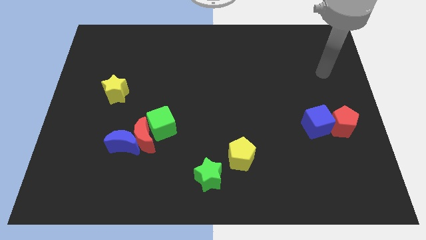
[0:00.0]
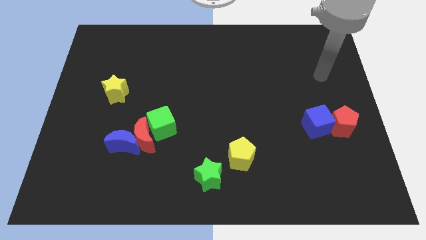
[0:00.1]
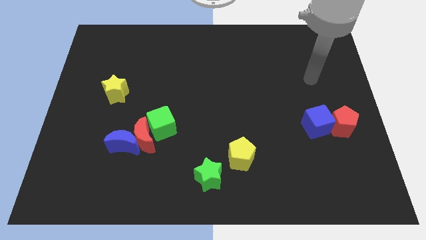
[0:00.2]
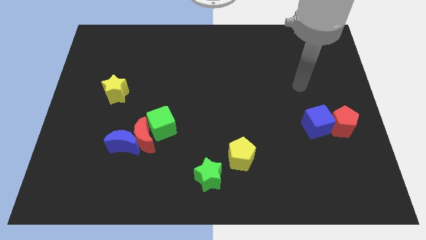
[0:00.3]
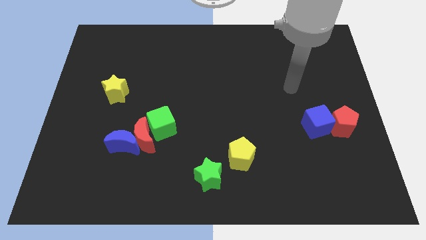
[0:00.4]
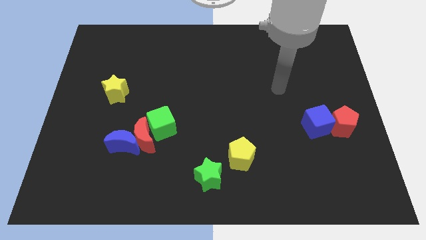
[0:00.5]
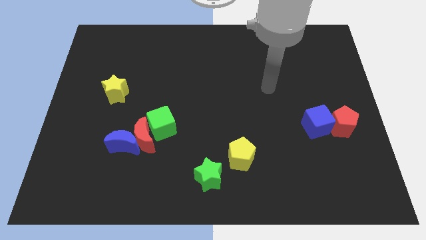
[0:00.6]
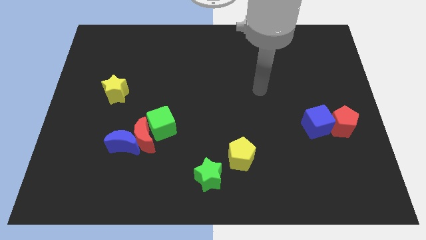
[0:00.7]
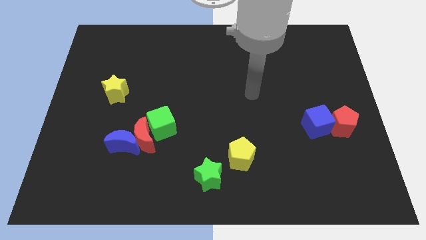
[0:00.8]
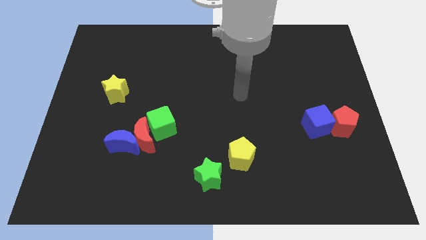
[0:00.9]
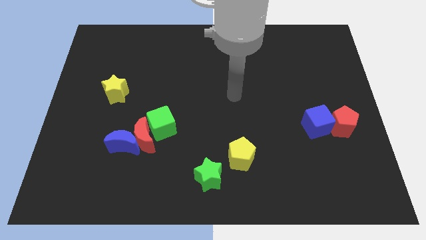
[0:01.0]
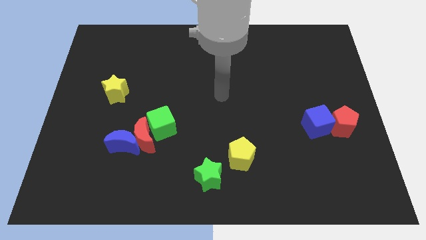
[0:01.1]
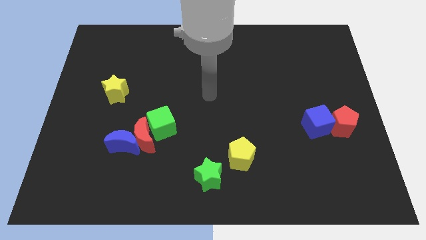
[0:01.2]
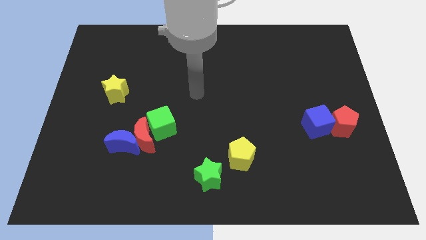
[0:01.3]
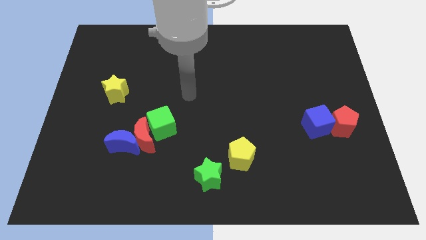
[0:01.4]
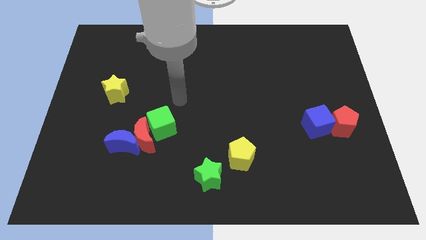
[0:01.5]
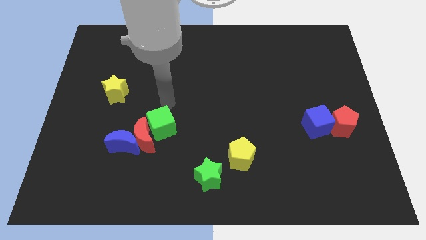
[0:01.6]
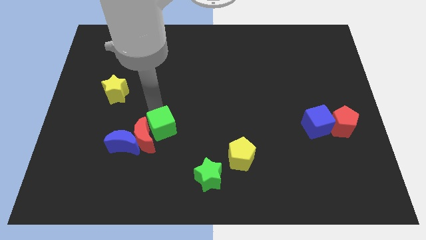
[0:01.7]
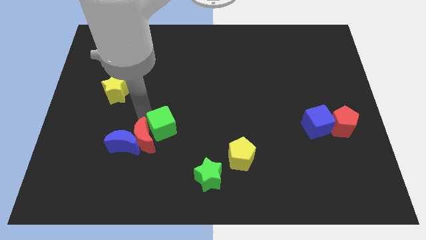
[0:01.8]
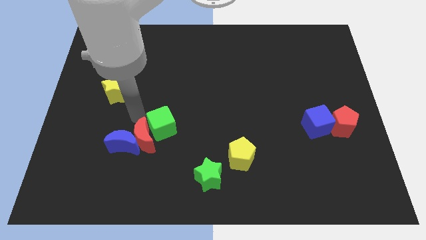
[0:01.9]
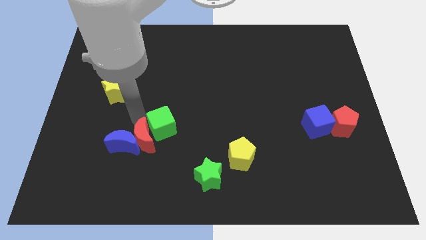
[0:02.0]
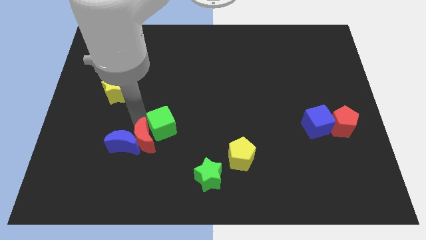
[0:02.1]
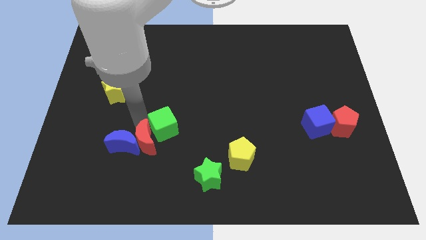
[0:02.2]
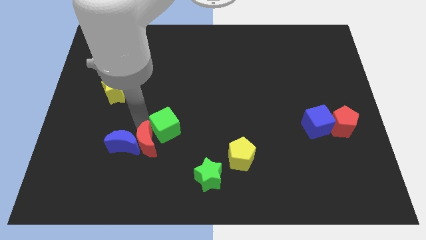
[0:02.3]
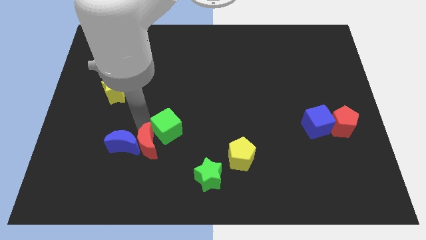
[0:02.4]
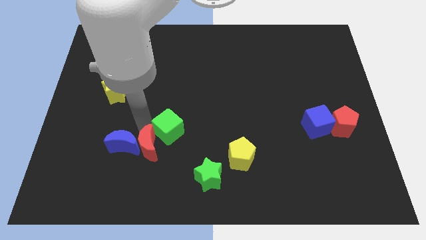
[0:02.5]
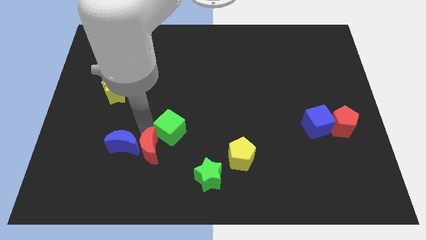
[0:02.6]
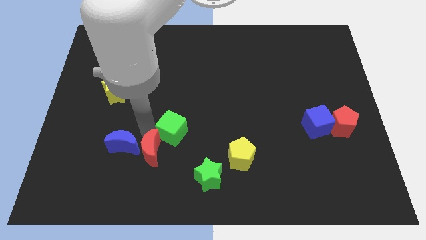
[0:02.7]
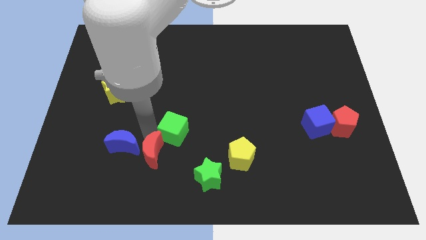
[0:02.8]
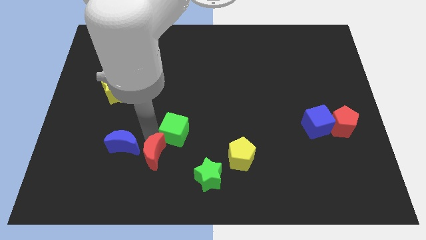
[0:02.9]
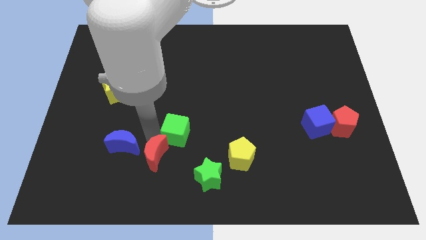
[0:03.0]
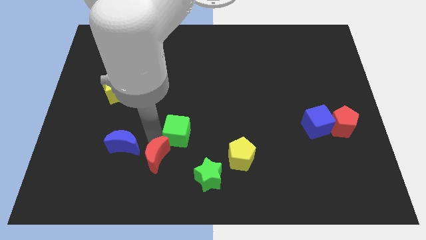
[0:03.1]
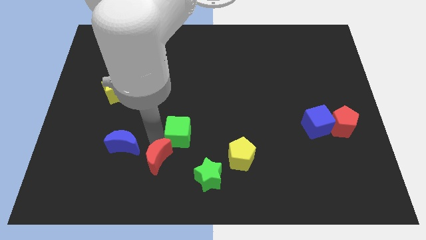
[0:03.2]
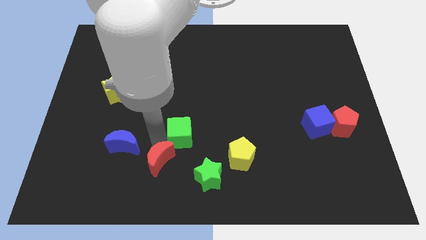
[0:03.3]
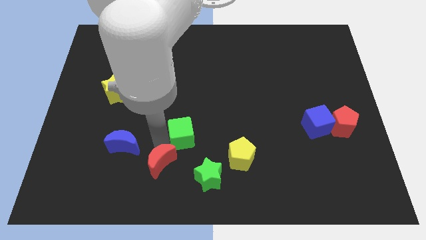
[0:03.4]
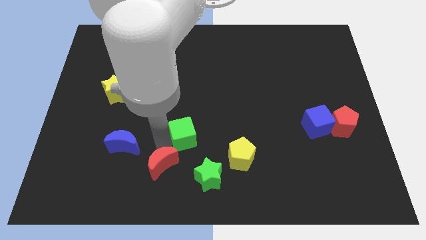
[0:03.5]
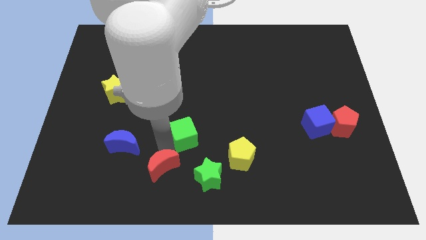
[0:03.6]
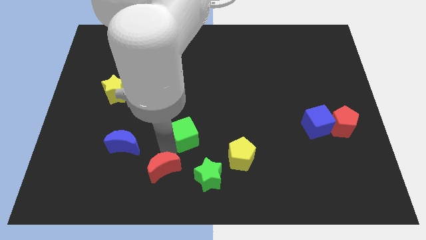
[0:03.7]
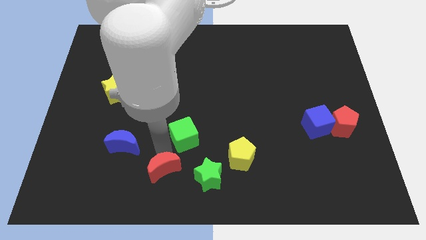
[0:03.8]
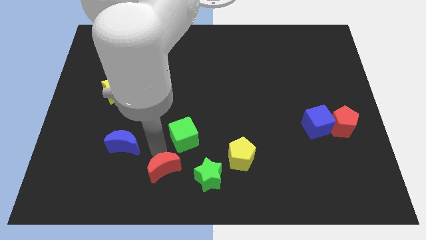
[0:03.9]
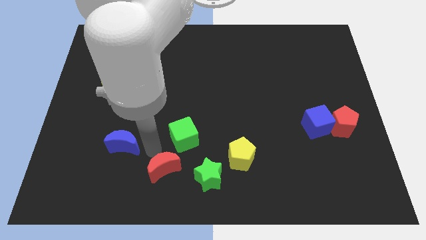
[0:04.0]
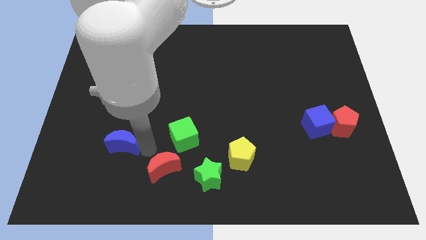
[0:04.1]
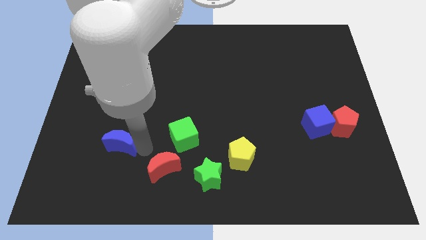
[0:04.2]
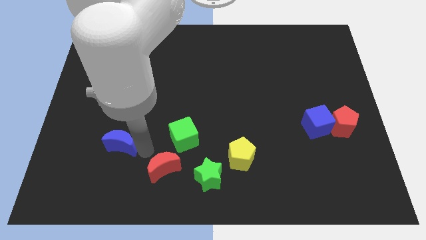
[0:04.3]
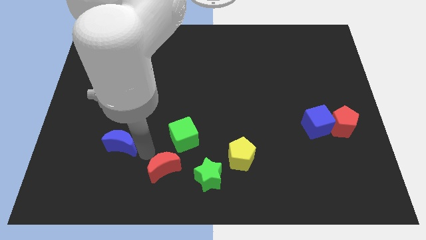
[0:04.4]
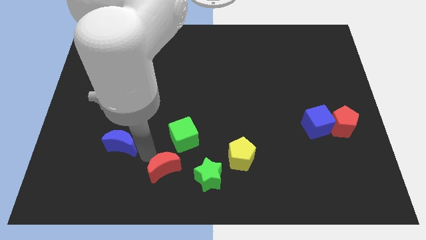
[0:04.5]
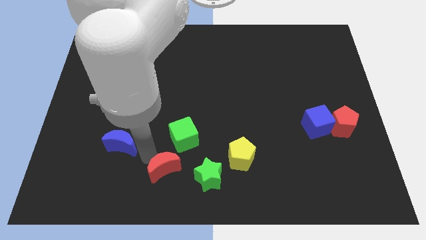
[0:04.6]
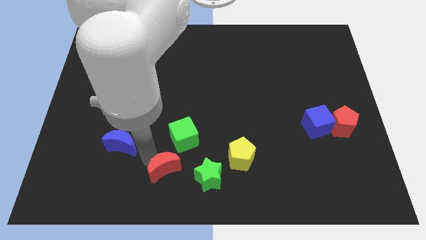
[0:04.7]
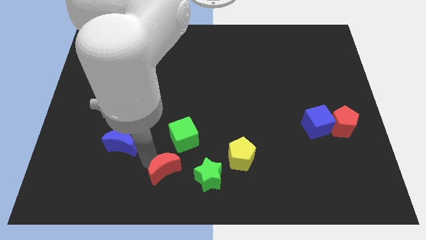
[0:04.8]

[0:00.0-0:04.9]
move the red moon to the bottom

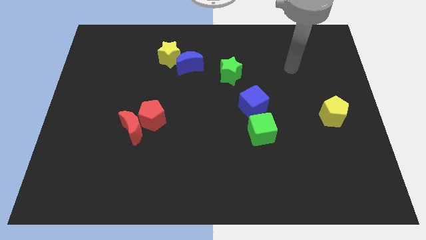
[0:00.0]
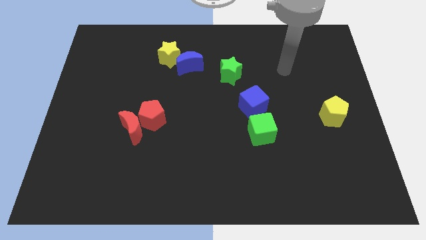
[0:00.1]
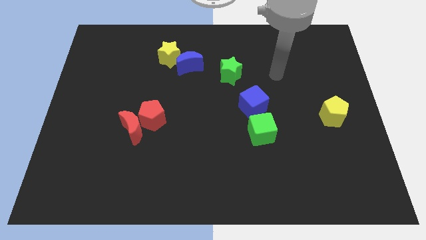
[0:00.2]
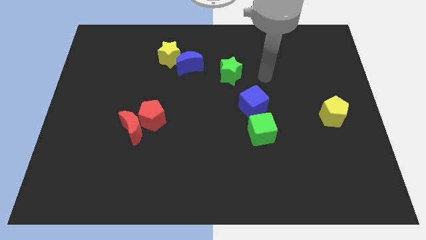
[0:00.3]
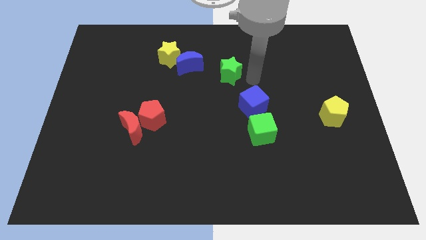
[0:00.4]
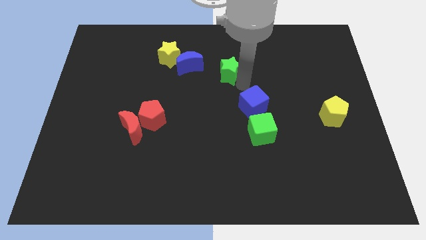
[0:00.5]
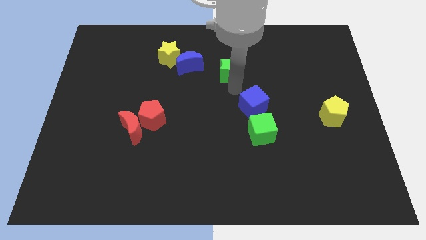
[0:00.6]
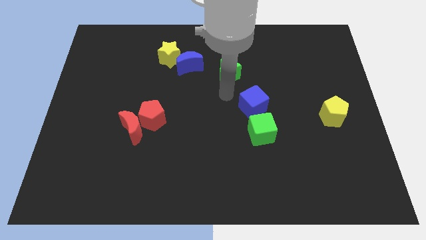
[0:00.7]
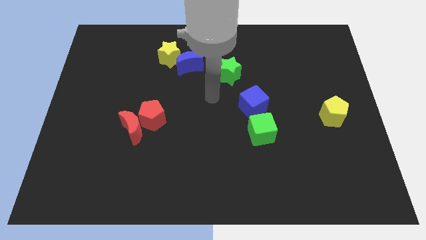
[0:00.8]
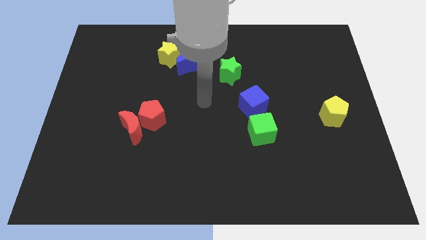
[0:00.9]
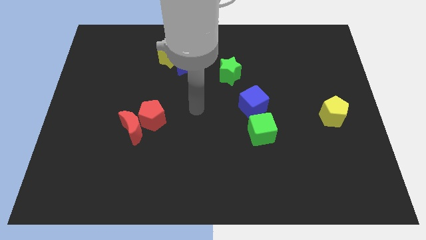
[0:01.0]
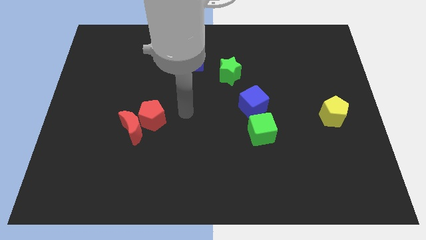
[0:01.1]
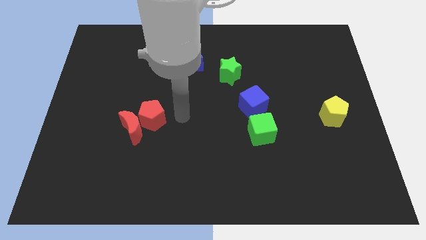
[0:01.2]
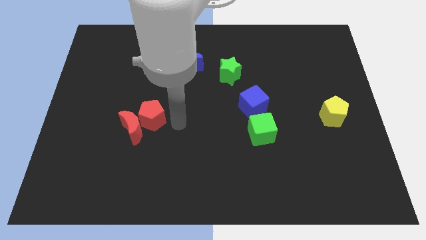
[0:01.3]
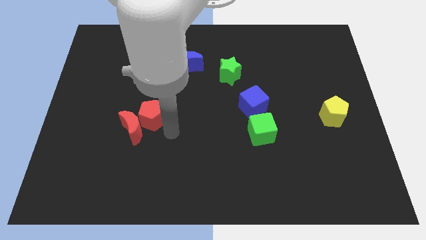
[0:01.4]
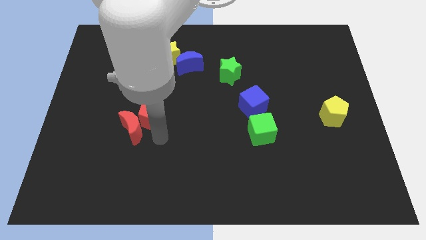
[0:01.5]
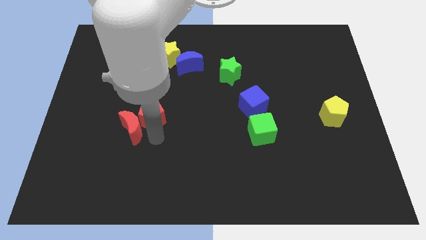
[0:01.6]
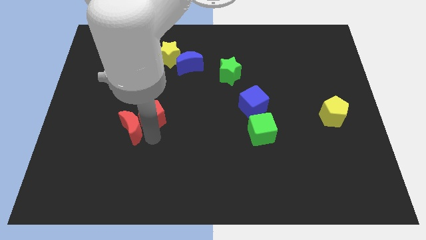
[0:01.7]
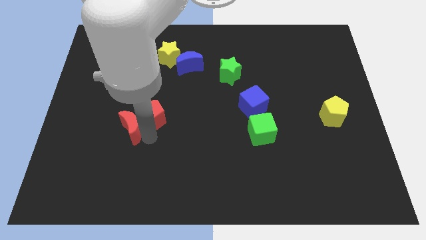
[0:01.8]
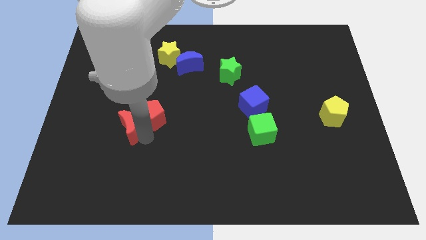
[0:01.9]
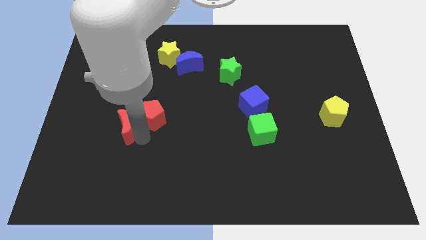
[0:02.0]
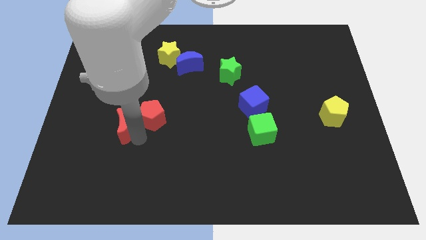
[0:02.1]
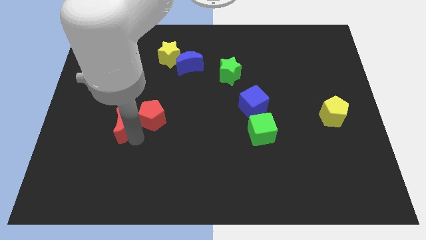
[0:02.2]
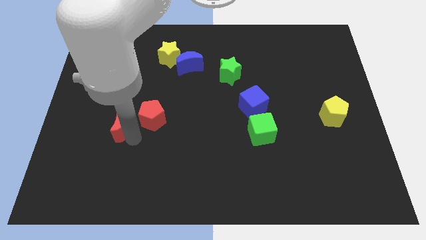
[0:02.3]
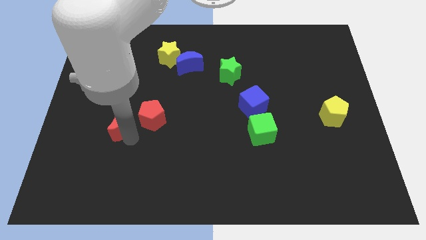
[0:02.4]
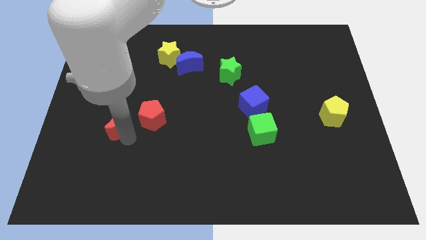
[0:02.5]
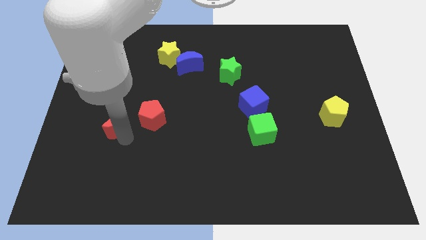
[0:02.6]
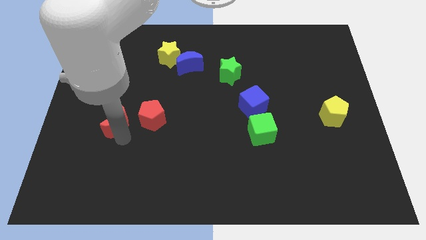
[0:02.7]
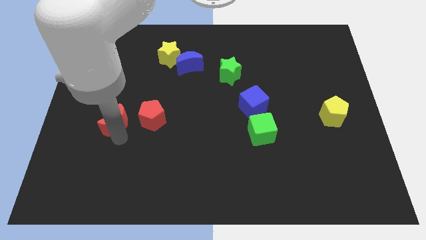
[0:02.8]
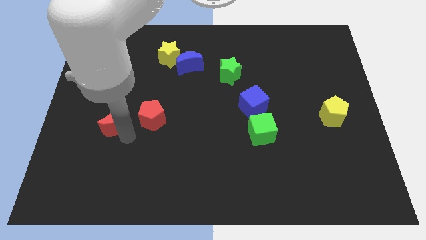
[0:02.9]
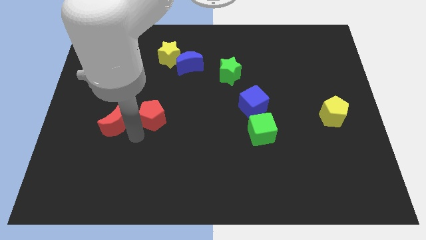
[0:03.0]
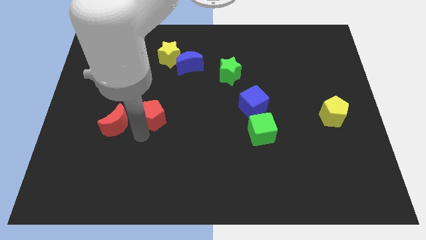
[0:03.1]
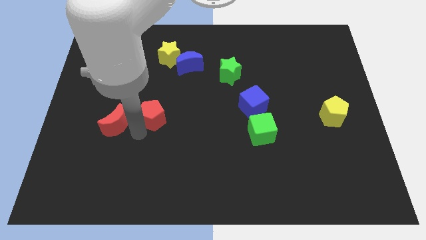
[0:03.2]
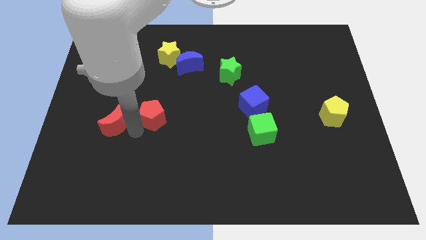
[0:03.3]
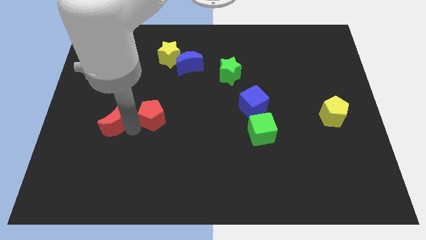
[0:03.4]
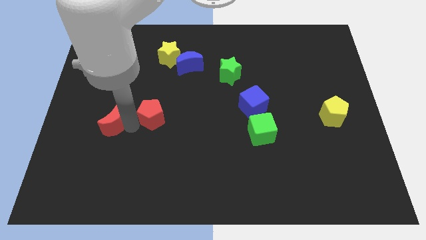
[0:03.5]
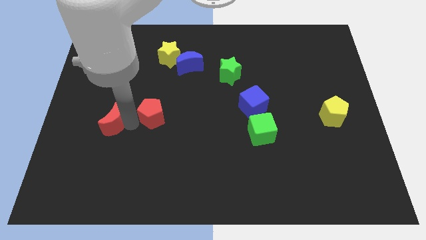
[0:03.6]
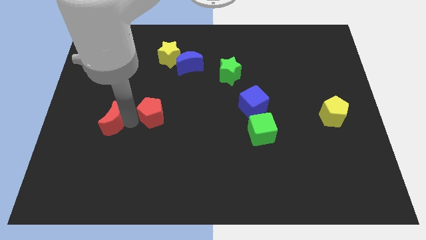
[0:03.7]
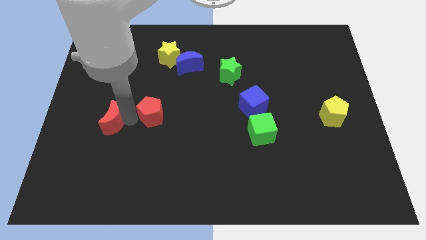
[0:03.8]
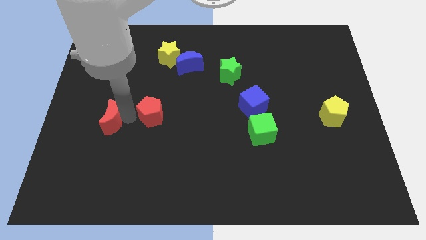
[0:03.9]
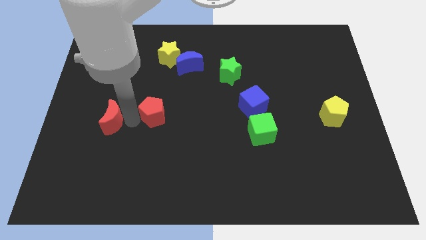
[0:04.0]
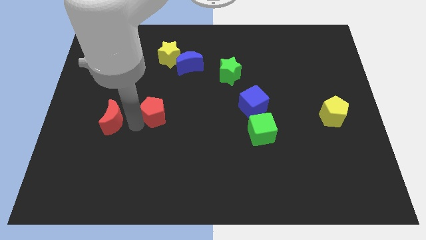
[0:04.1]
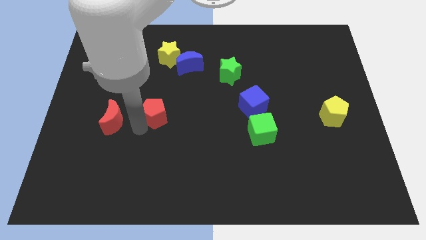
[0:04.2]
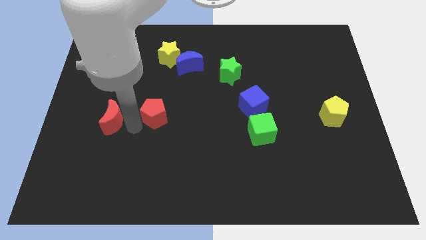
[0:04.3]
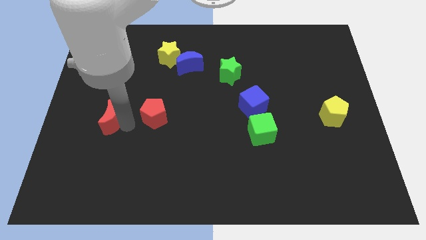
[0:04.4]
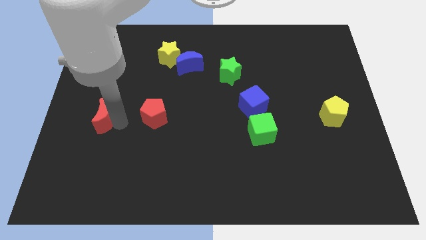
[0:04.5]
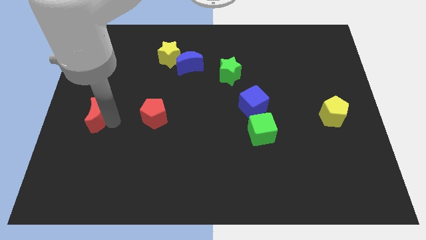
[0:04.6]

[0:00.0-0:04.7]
move the red moon to the left side
